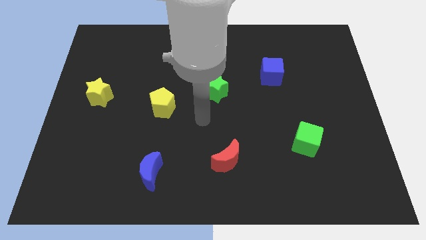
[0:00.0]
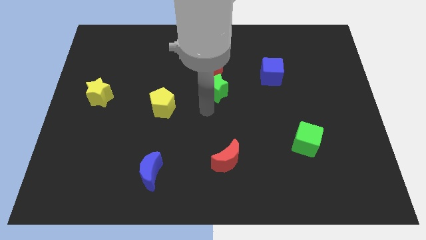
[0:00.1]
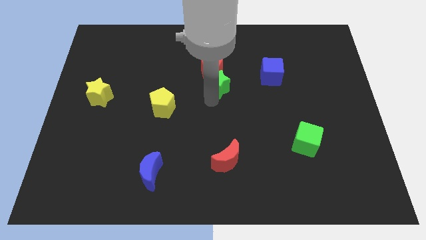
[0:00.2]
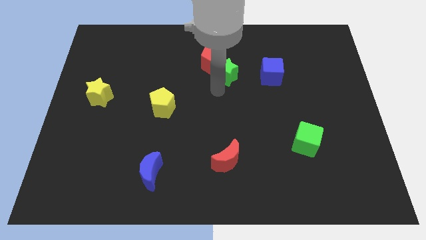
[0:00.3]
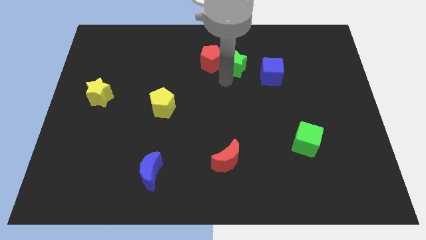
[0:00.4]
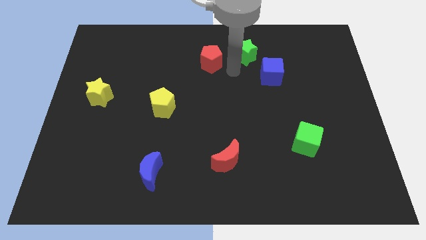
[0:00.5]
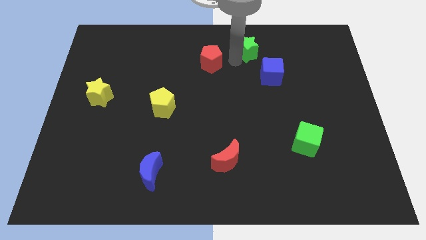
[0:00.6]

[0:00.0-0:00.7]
pull the red pentagon apart from the green star

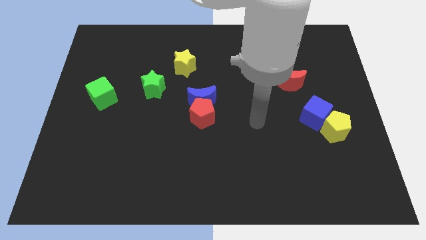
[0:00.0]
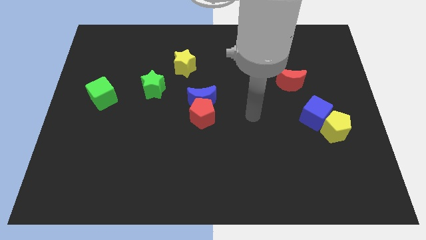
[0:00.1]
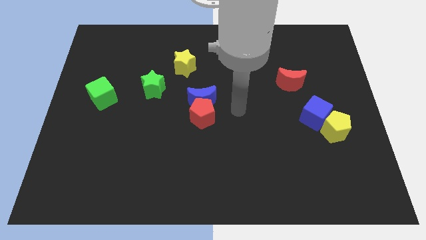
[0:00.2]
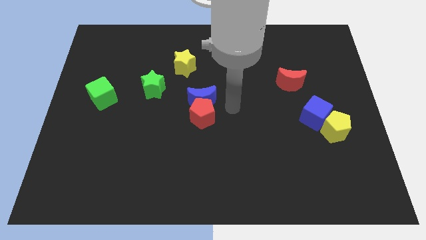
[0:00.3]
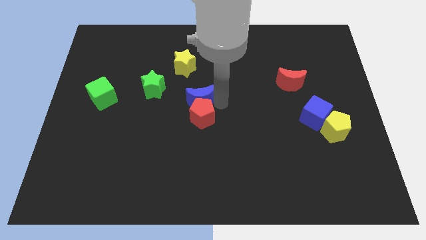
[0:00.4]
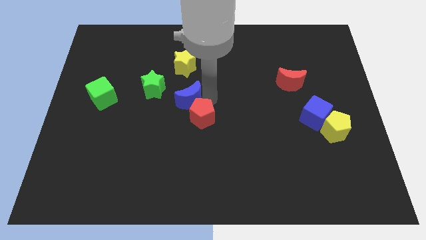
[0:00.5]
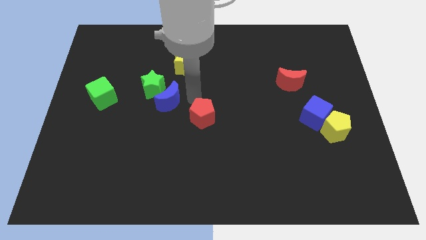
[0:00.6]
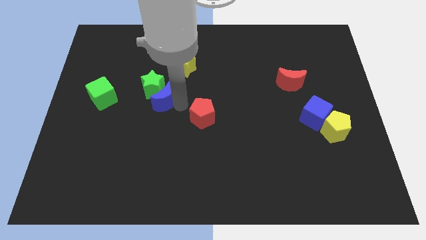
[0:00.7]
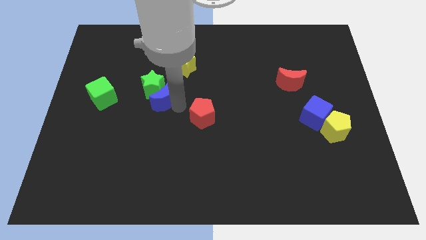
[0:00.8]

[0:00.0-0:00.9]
separate the red pentagon from the blue moon

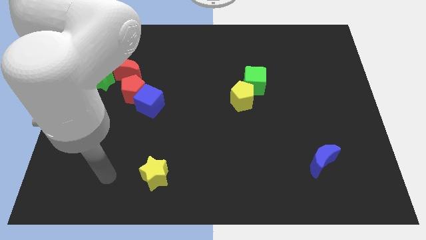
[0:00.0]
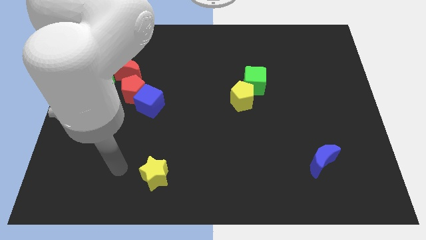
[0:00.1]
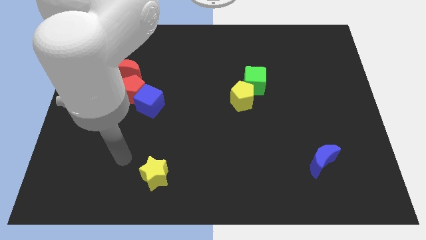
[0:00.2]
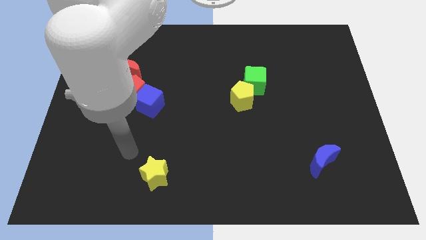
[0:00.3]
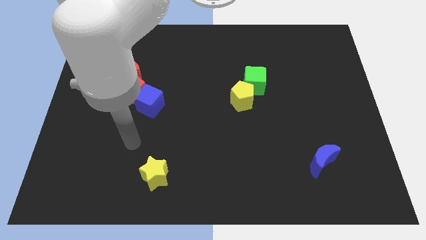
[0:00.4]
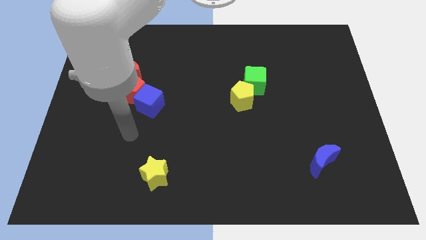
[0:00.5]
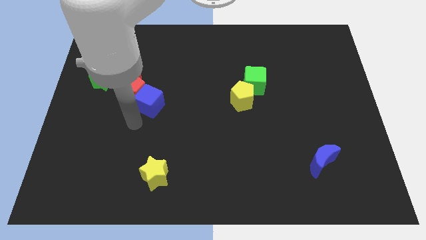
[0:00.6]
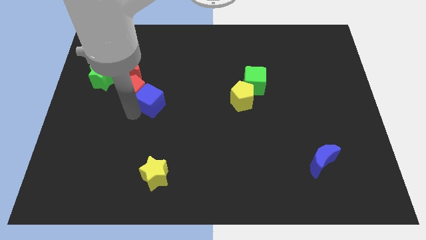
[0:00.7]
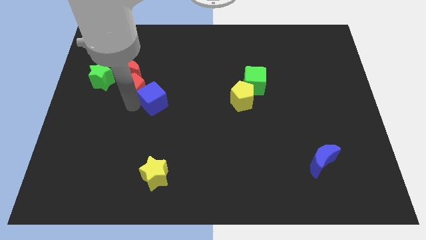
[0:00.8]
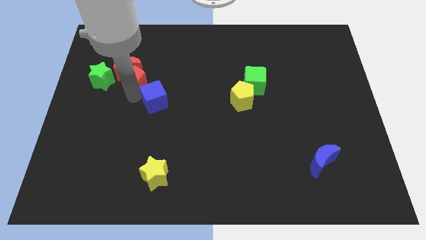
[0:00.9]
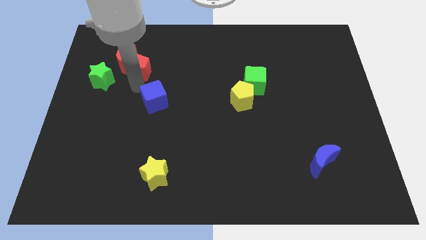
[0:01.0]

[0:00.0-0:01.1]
move the blue cube away from the red pentagon

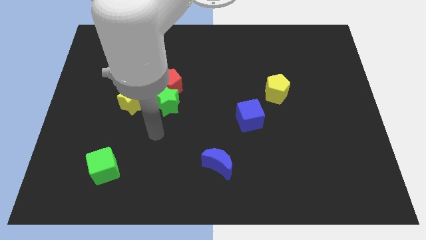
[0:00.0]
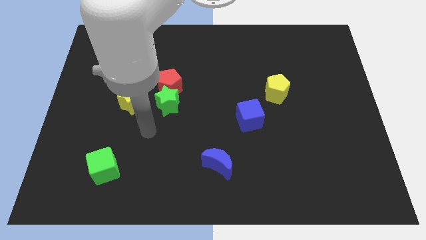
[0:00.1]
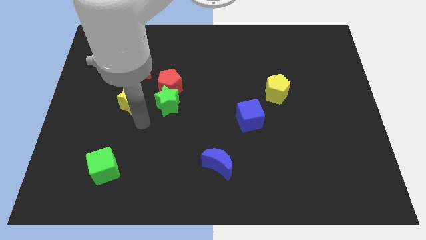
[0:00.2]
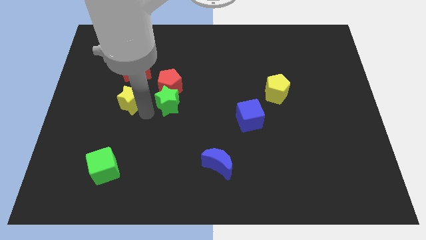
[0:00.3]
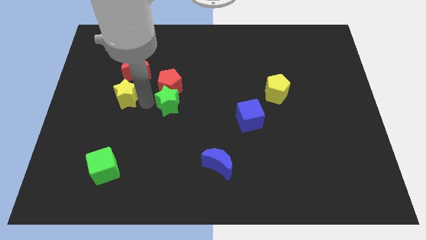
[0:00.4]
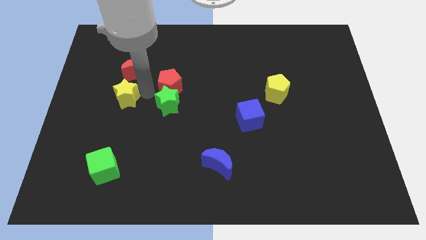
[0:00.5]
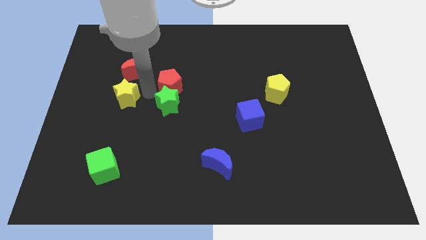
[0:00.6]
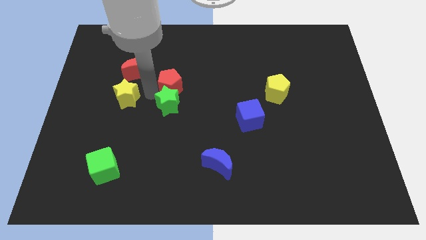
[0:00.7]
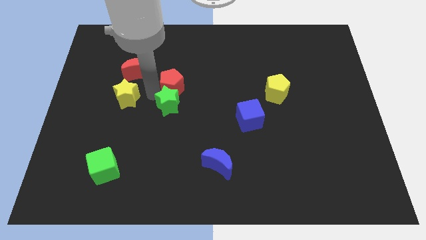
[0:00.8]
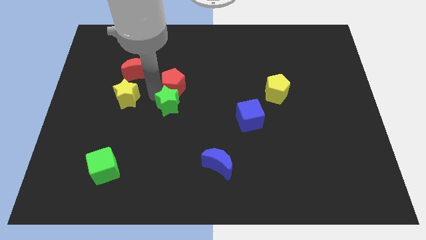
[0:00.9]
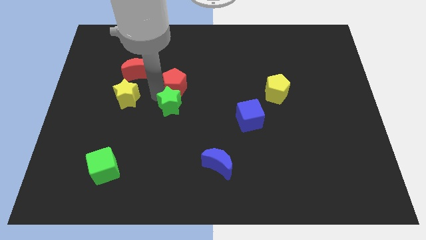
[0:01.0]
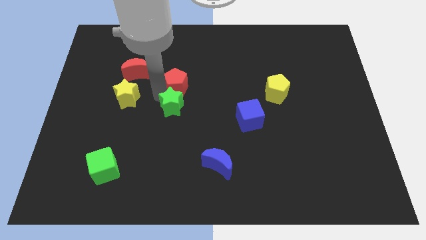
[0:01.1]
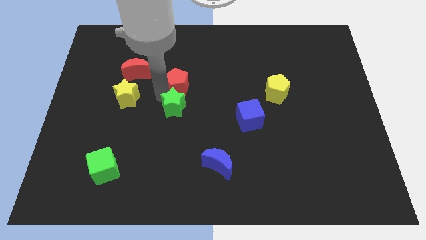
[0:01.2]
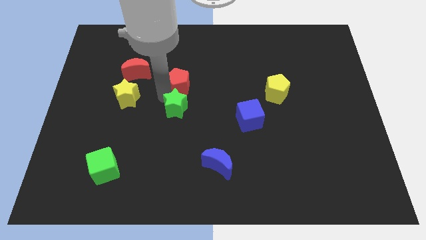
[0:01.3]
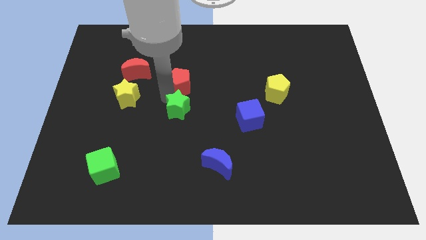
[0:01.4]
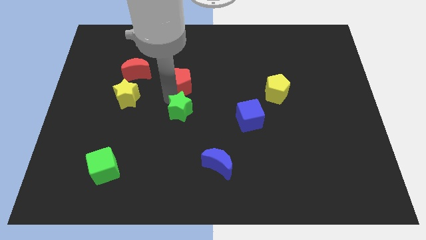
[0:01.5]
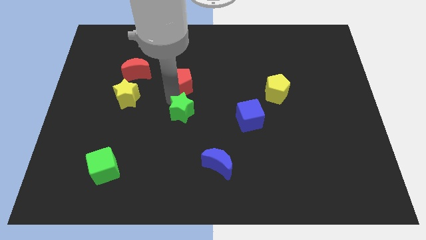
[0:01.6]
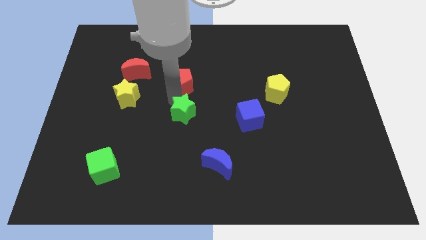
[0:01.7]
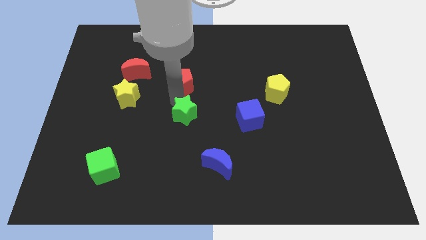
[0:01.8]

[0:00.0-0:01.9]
separate the green star from the red pentagon and yellow star

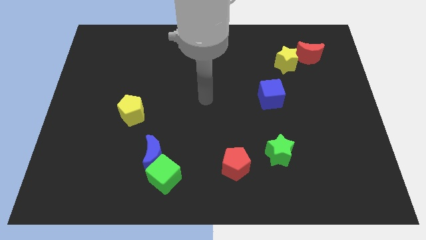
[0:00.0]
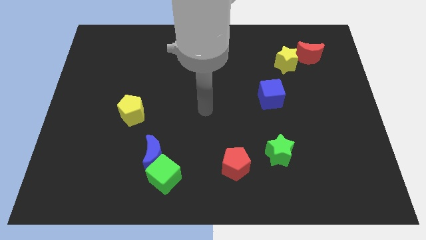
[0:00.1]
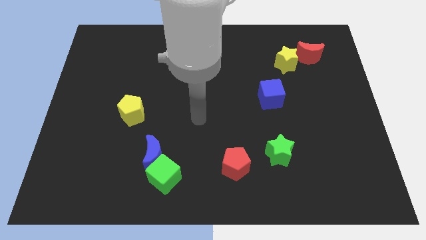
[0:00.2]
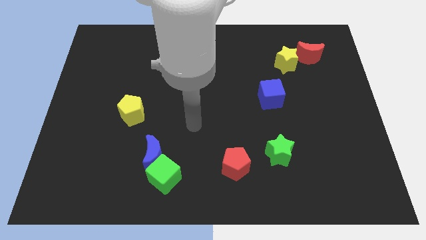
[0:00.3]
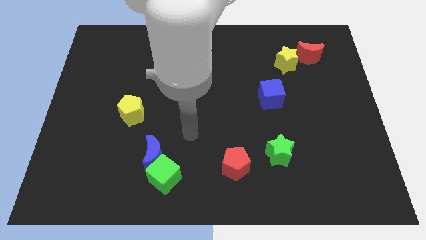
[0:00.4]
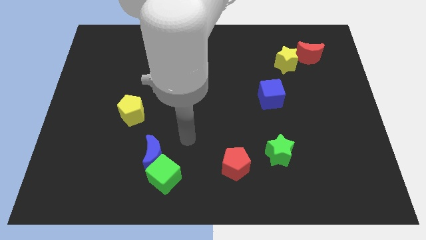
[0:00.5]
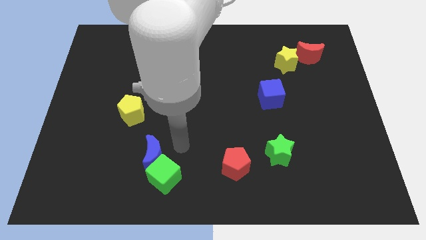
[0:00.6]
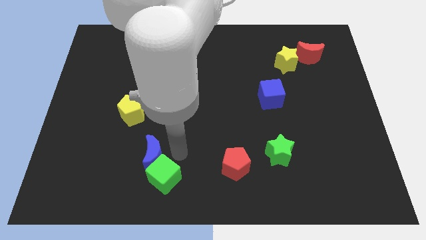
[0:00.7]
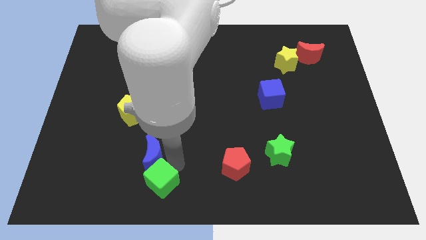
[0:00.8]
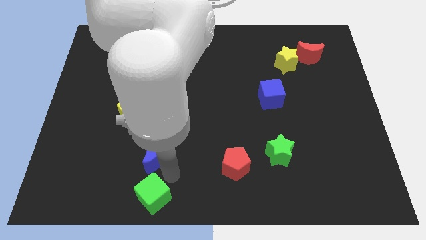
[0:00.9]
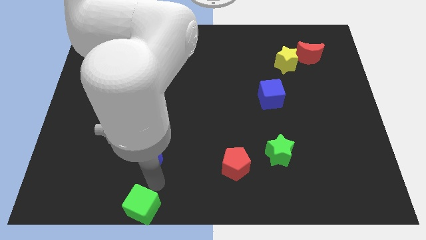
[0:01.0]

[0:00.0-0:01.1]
separate the blue moon from the green cube

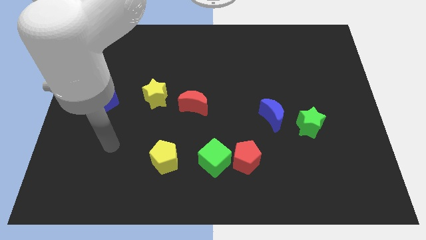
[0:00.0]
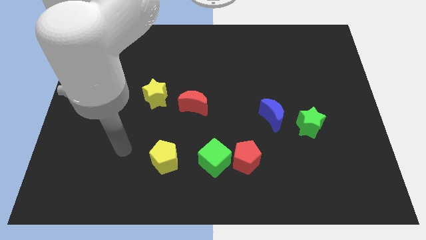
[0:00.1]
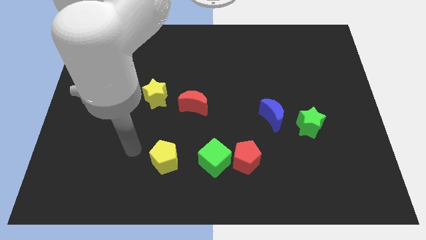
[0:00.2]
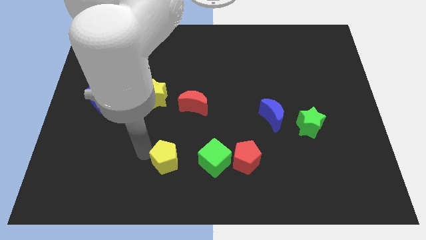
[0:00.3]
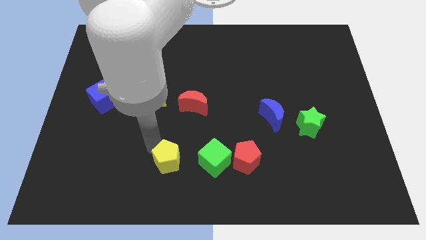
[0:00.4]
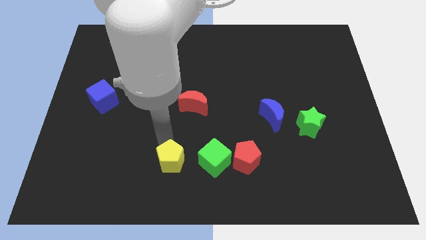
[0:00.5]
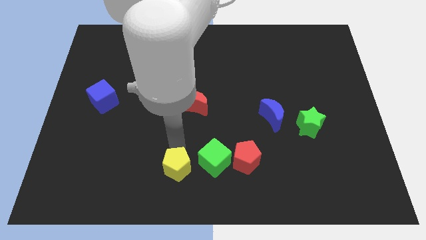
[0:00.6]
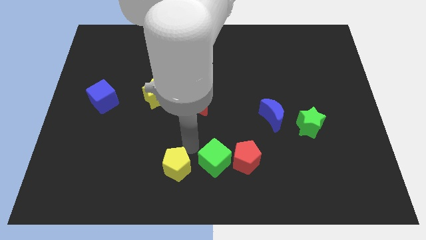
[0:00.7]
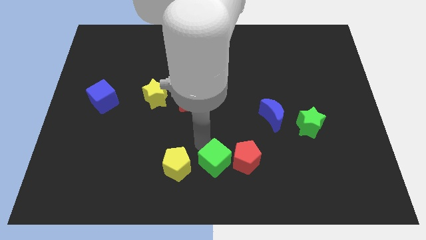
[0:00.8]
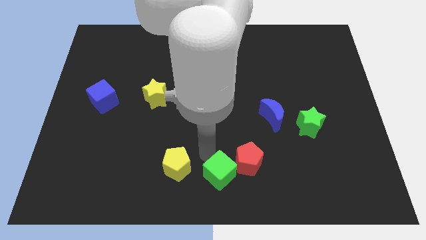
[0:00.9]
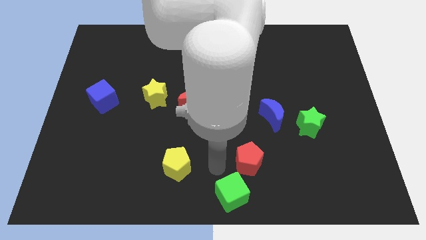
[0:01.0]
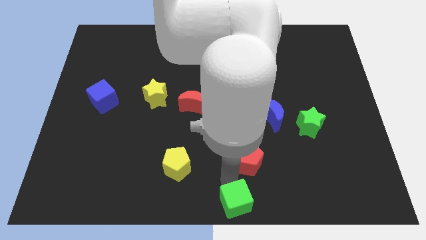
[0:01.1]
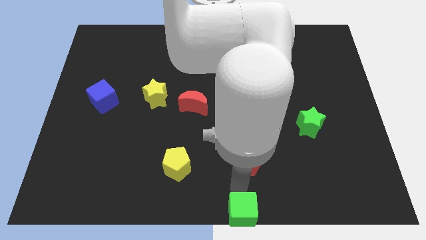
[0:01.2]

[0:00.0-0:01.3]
separate the red pentagon from the green cube

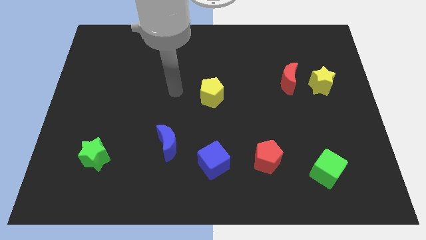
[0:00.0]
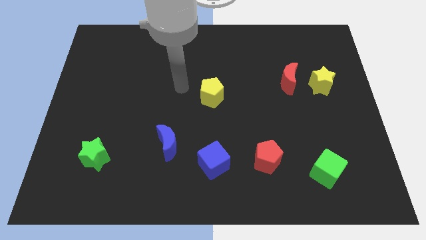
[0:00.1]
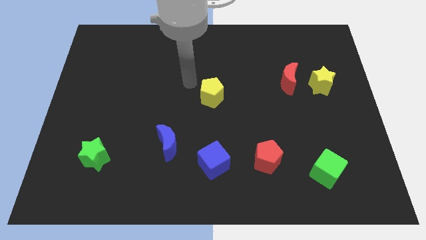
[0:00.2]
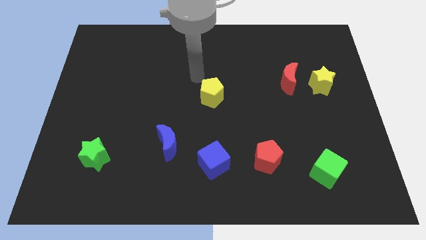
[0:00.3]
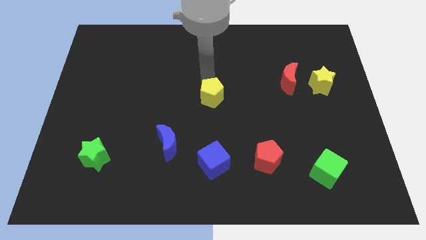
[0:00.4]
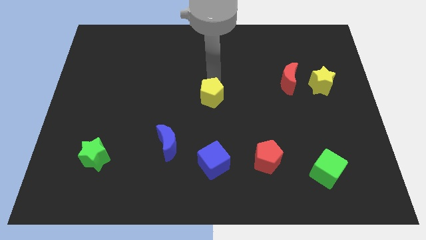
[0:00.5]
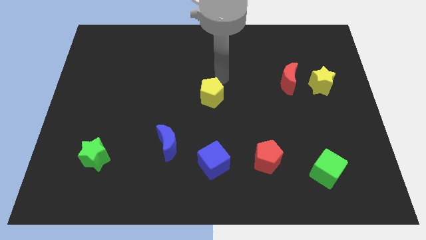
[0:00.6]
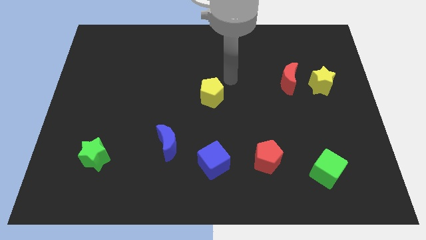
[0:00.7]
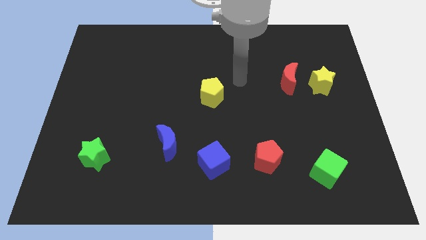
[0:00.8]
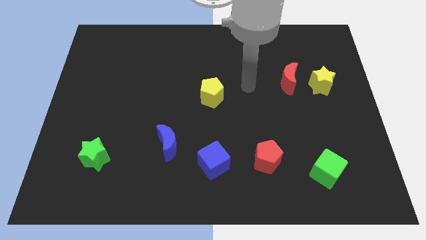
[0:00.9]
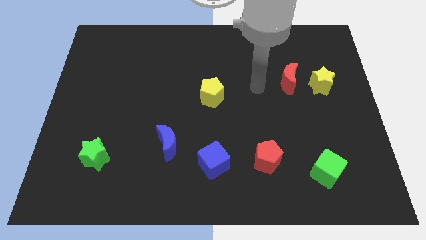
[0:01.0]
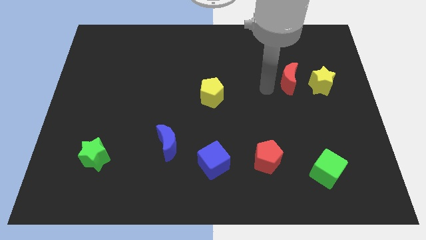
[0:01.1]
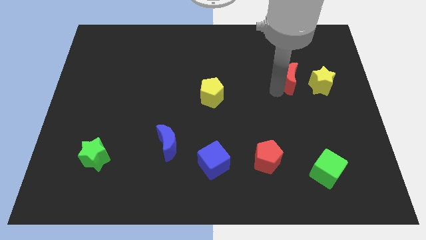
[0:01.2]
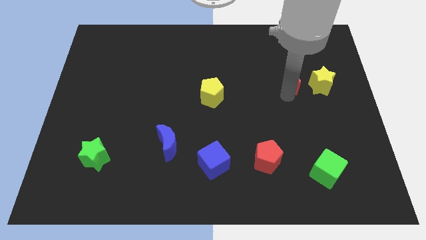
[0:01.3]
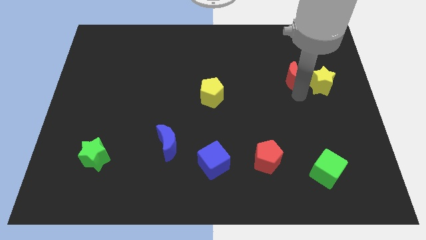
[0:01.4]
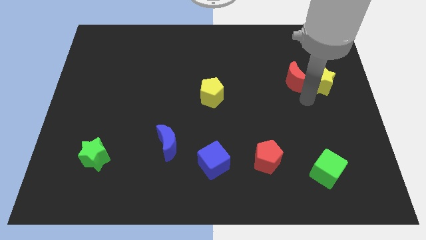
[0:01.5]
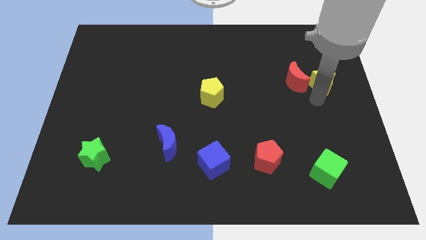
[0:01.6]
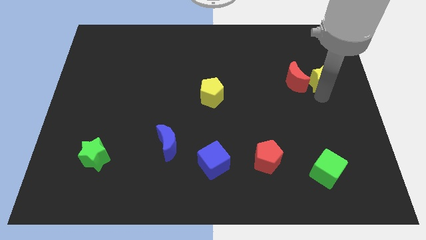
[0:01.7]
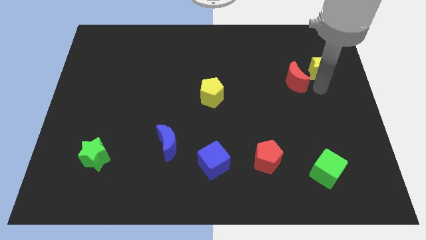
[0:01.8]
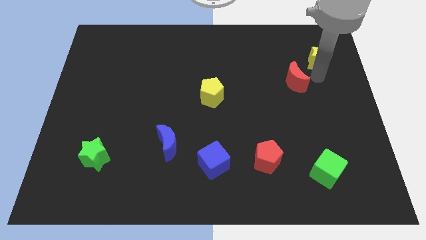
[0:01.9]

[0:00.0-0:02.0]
separate the red moon from the yellow star

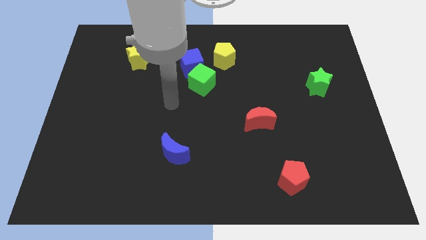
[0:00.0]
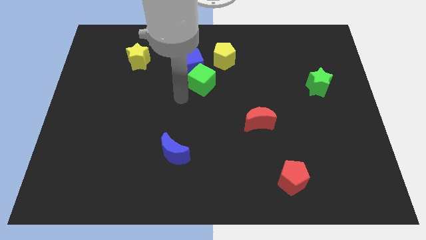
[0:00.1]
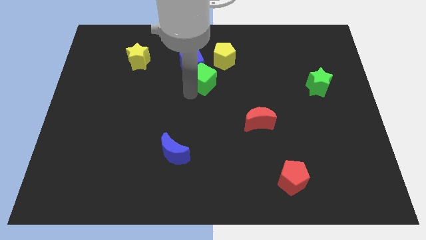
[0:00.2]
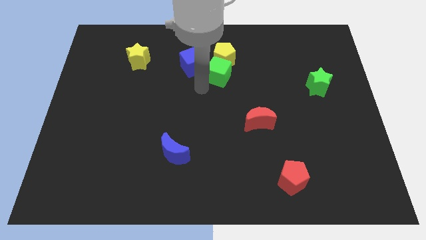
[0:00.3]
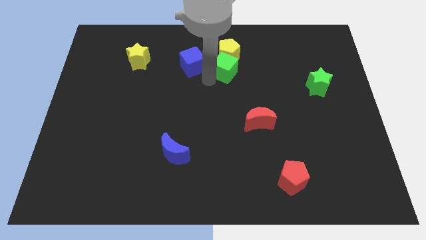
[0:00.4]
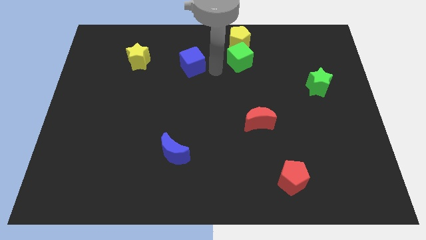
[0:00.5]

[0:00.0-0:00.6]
move the blue cube away from the green cube and yellow pentagon
